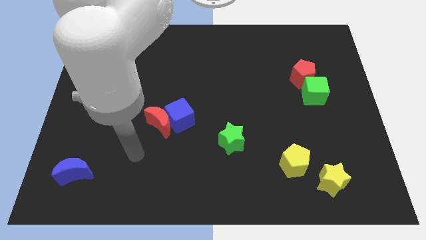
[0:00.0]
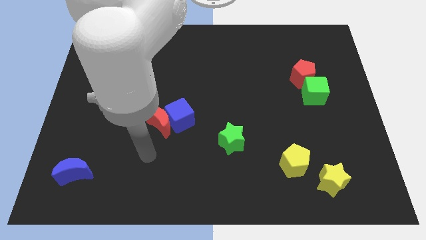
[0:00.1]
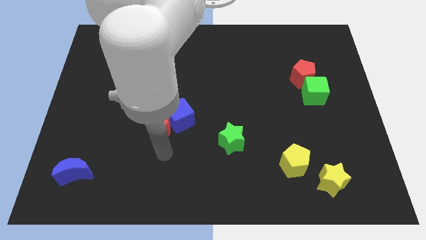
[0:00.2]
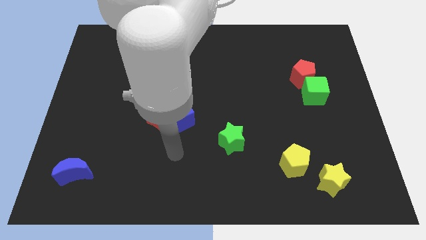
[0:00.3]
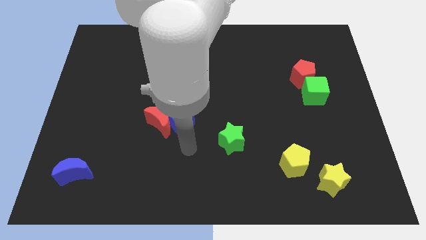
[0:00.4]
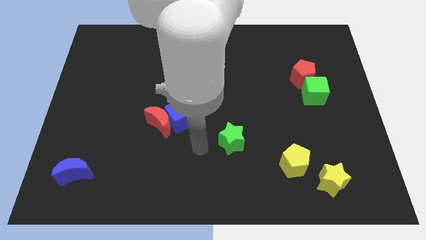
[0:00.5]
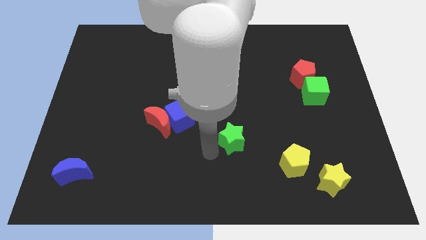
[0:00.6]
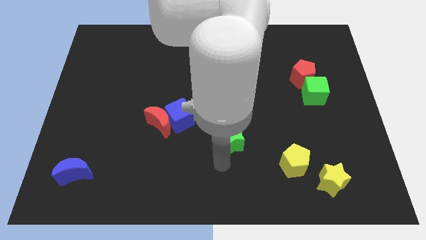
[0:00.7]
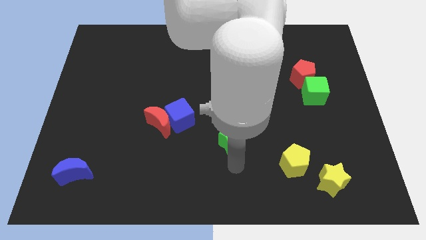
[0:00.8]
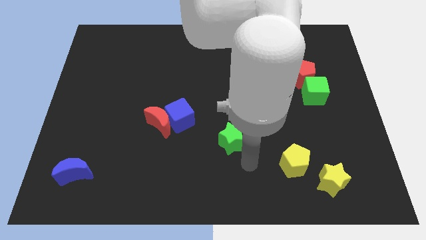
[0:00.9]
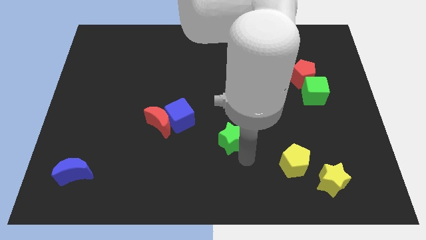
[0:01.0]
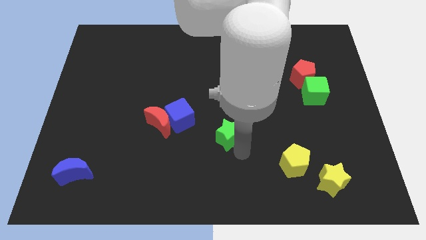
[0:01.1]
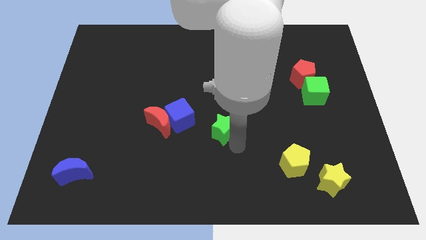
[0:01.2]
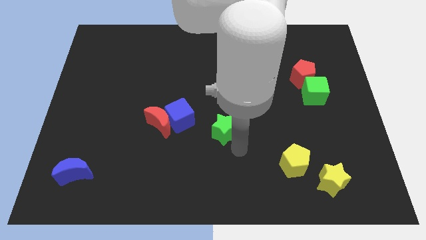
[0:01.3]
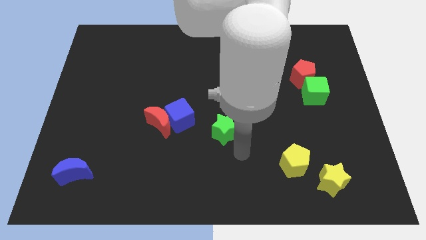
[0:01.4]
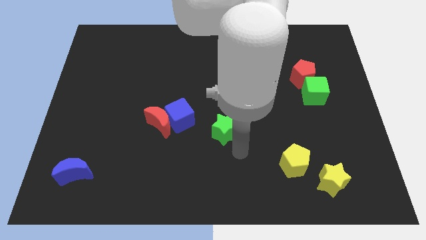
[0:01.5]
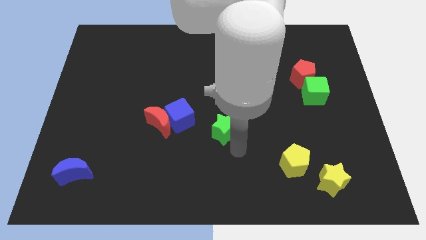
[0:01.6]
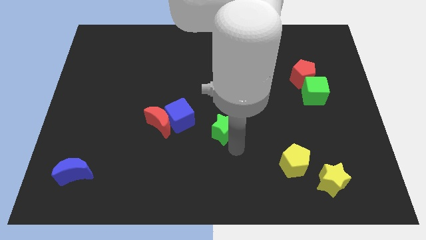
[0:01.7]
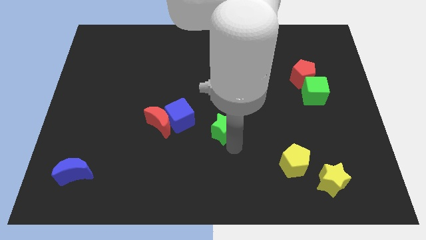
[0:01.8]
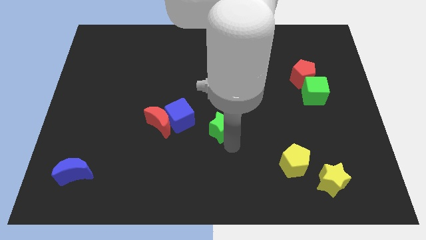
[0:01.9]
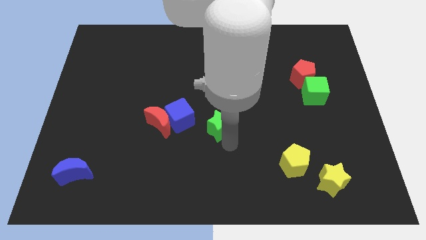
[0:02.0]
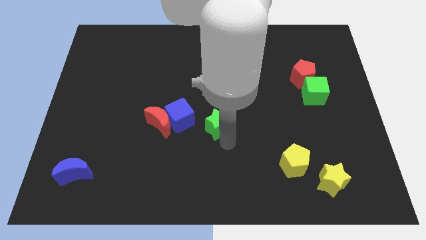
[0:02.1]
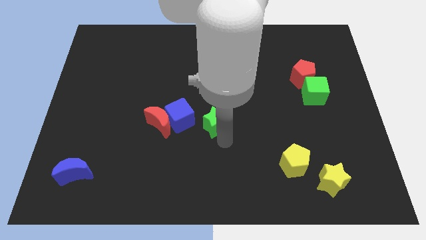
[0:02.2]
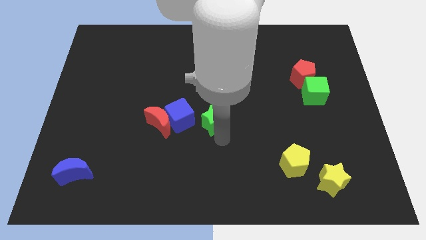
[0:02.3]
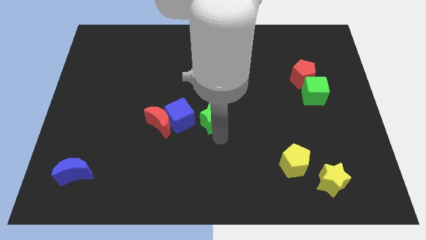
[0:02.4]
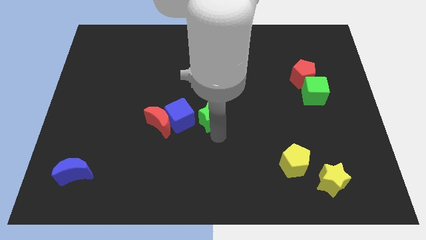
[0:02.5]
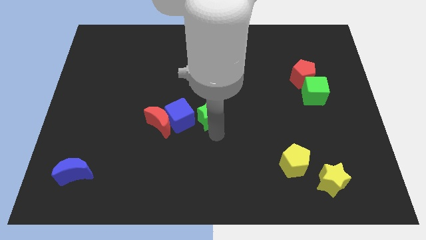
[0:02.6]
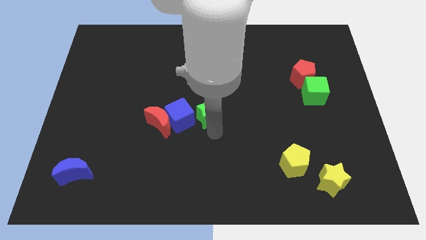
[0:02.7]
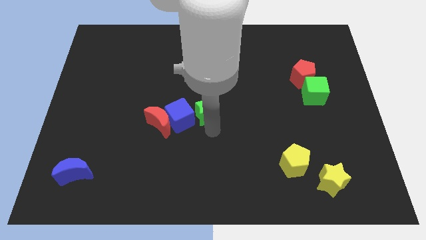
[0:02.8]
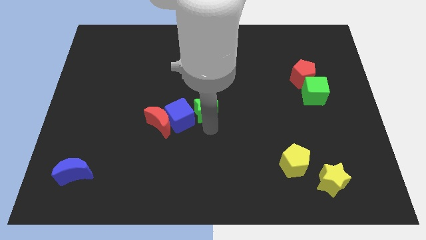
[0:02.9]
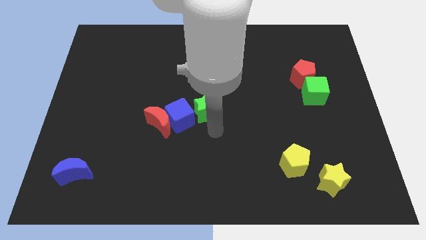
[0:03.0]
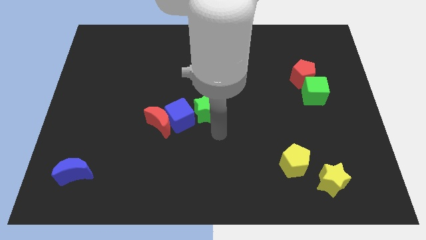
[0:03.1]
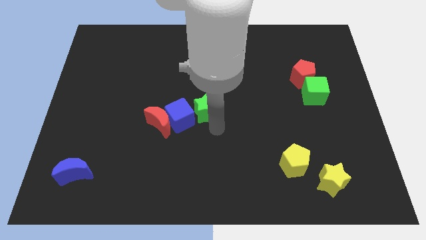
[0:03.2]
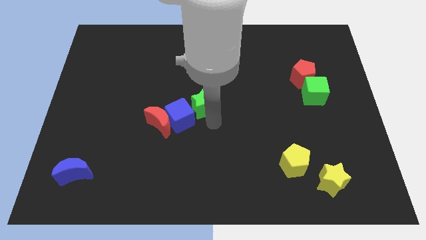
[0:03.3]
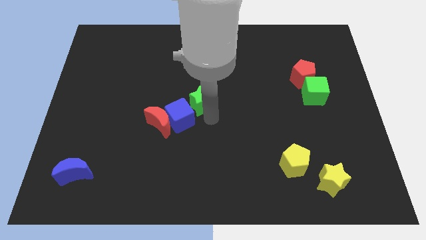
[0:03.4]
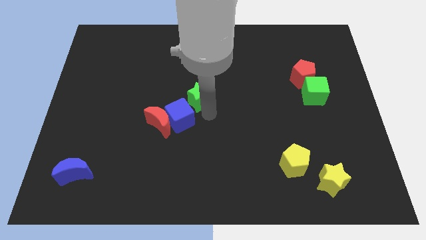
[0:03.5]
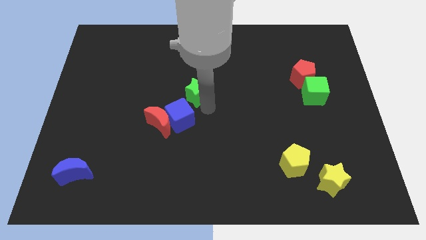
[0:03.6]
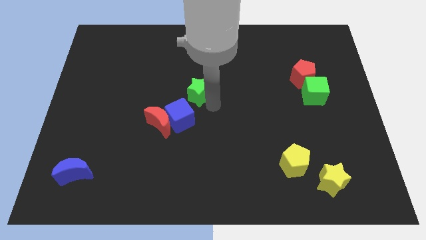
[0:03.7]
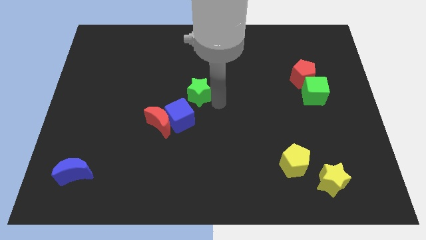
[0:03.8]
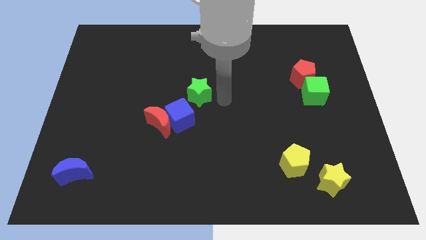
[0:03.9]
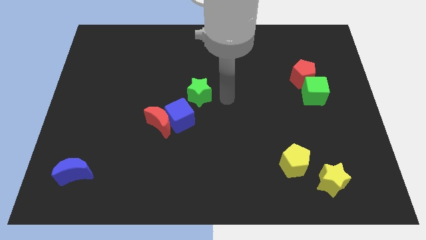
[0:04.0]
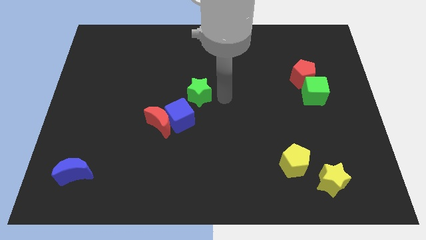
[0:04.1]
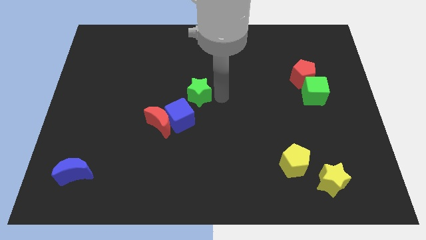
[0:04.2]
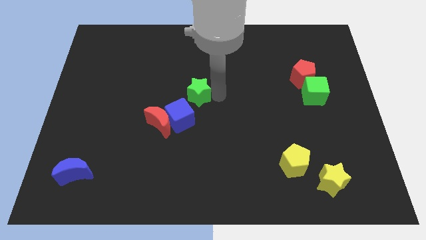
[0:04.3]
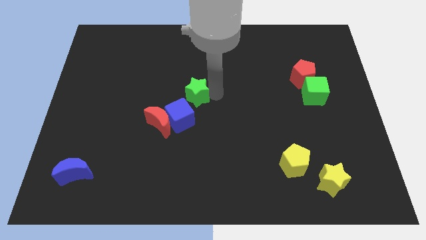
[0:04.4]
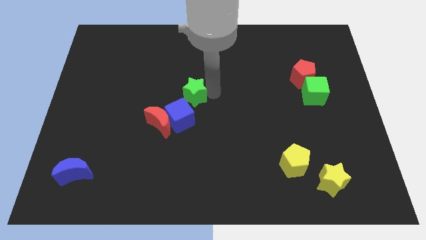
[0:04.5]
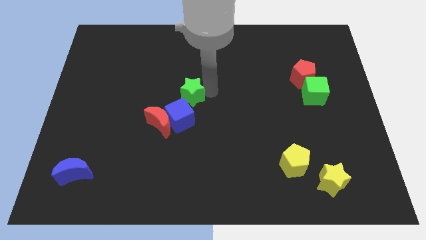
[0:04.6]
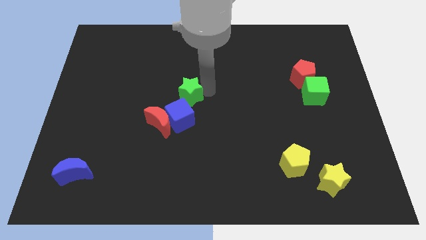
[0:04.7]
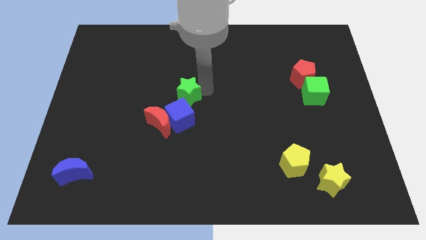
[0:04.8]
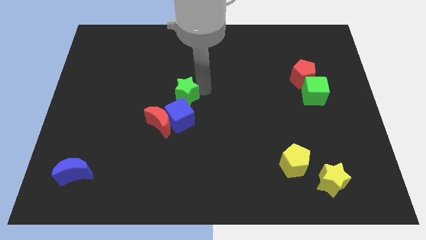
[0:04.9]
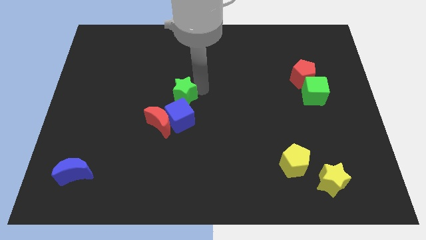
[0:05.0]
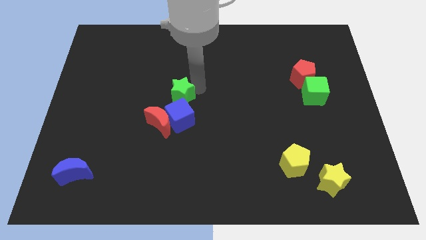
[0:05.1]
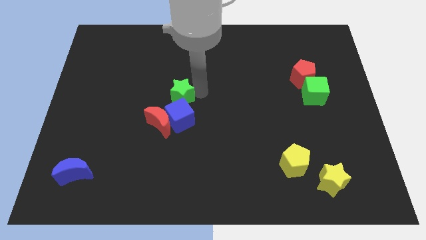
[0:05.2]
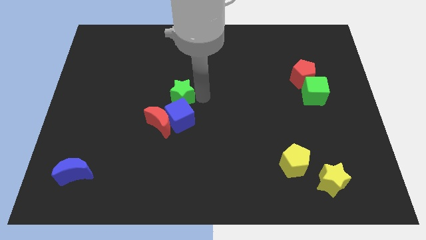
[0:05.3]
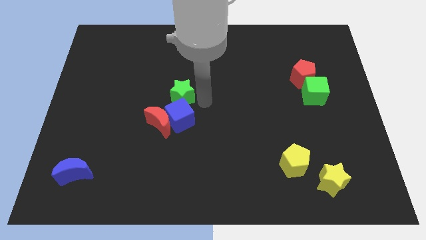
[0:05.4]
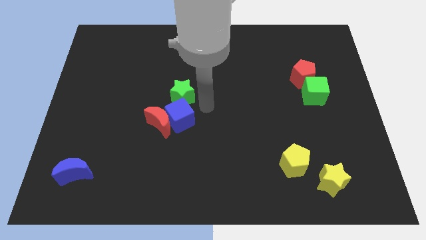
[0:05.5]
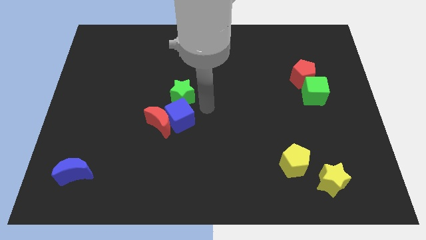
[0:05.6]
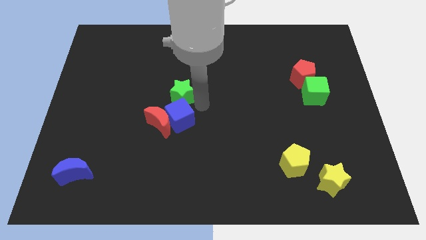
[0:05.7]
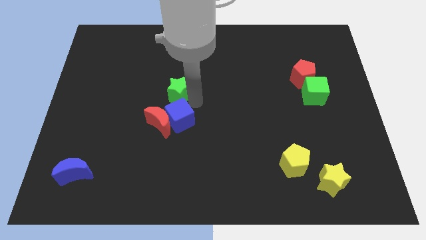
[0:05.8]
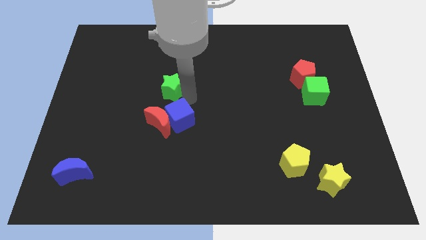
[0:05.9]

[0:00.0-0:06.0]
slide the green star up and then left

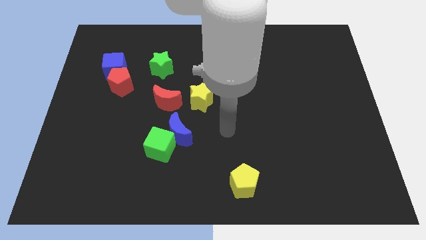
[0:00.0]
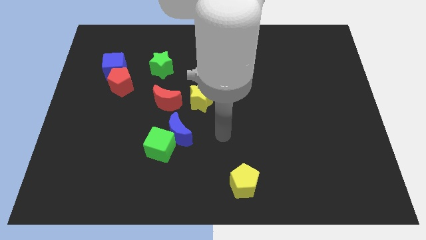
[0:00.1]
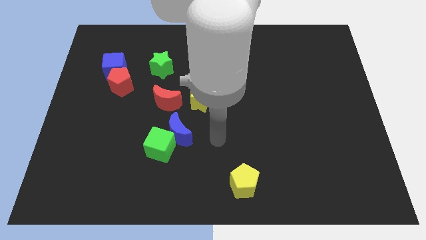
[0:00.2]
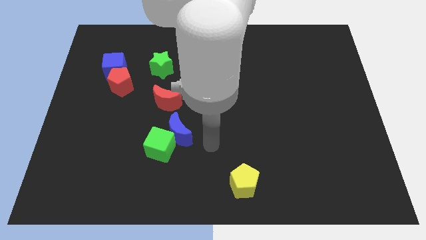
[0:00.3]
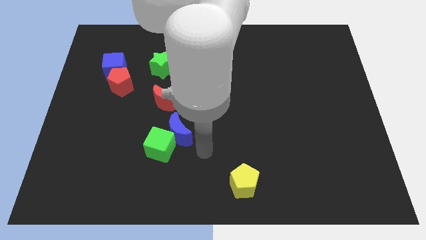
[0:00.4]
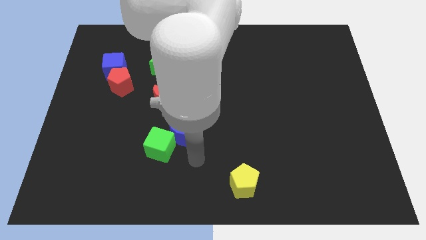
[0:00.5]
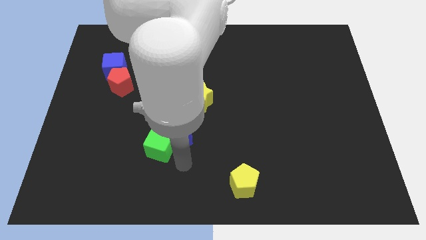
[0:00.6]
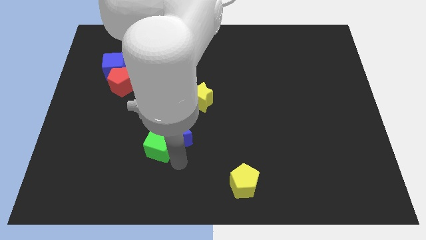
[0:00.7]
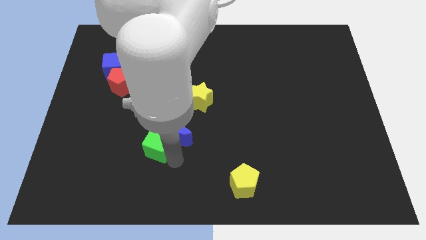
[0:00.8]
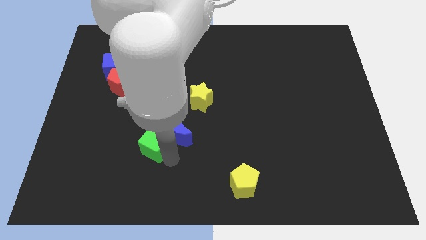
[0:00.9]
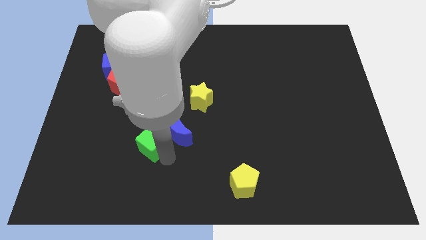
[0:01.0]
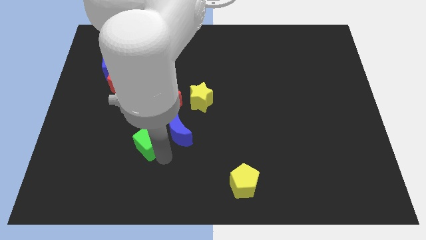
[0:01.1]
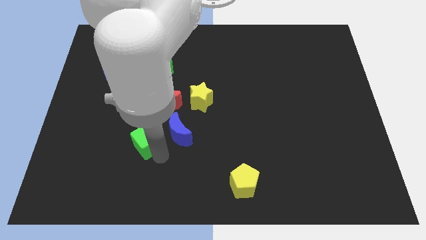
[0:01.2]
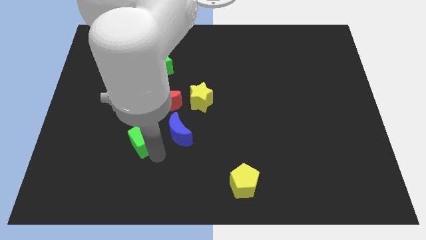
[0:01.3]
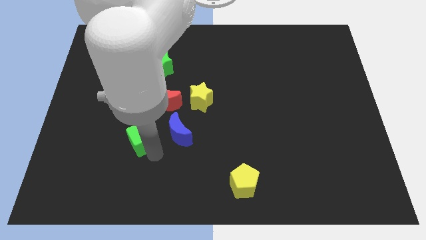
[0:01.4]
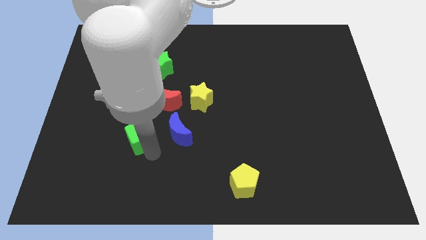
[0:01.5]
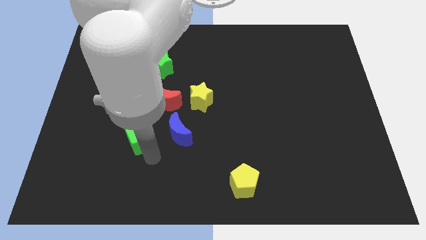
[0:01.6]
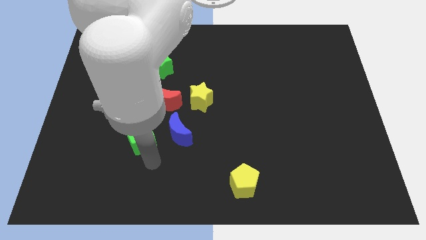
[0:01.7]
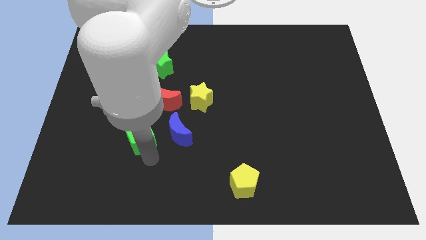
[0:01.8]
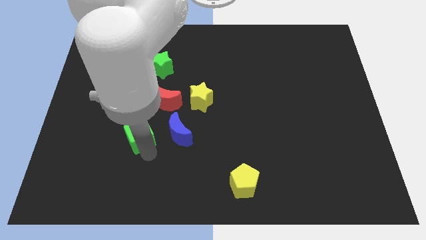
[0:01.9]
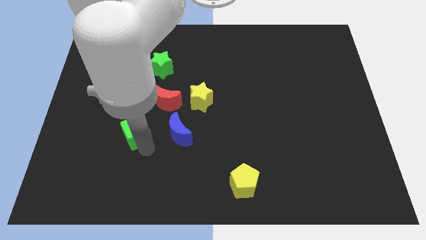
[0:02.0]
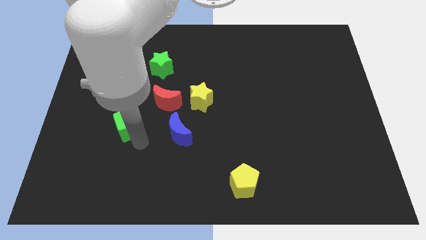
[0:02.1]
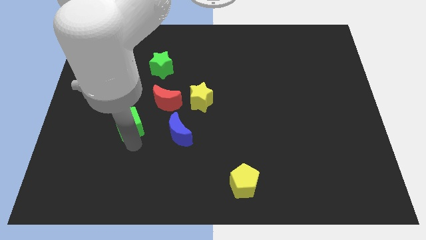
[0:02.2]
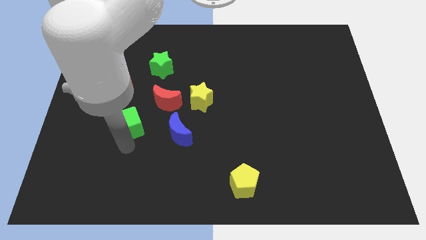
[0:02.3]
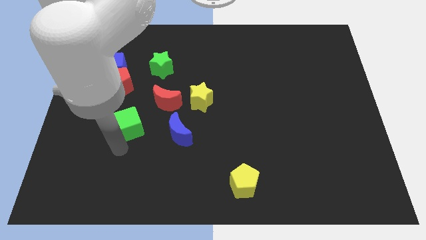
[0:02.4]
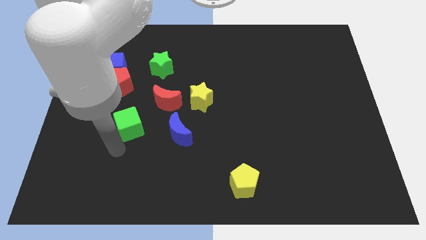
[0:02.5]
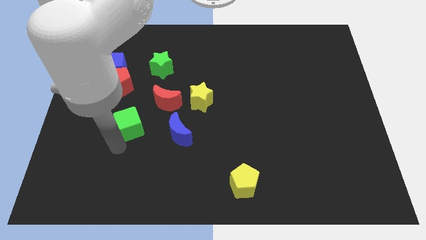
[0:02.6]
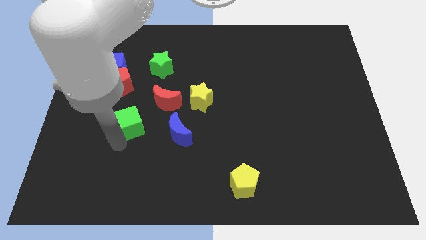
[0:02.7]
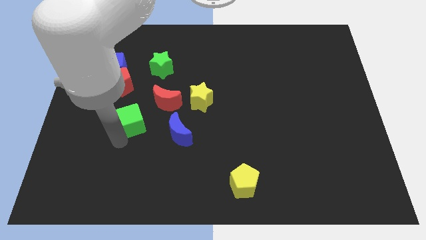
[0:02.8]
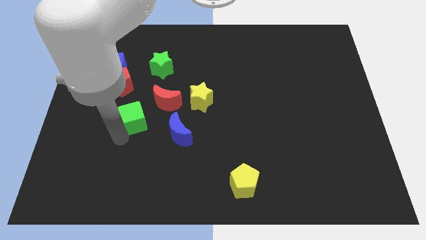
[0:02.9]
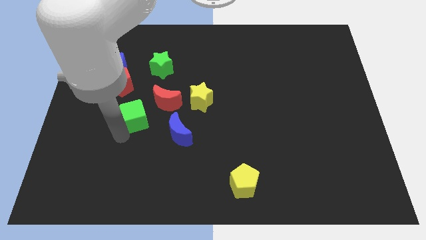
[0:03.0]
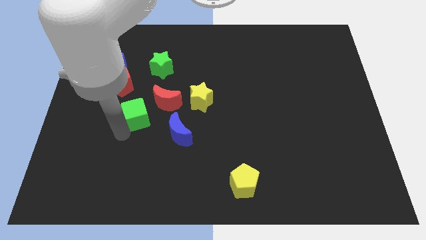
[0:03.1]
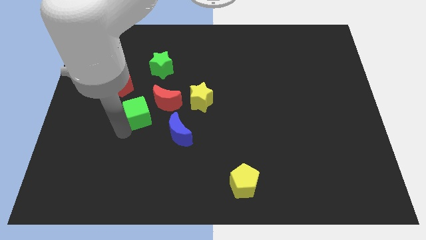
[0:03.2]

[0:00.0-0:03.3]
slightly slide the green cube upwards
